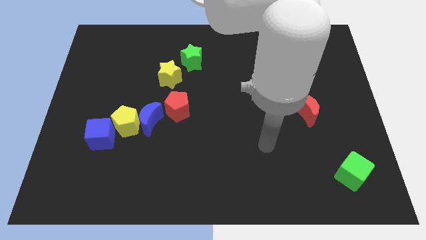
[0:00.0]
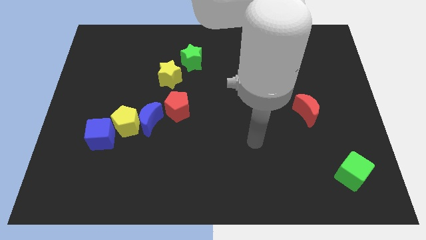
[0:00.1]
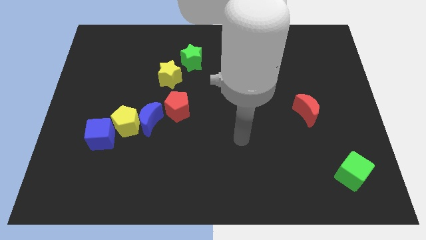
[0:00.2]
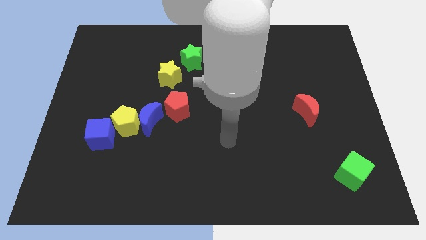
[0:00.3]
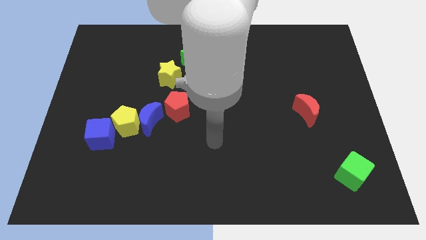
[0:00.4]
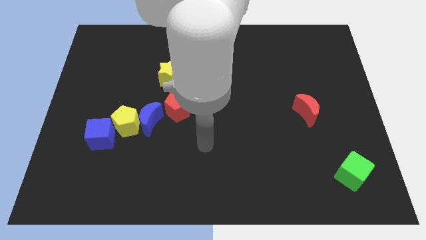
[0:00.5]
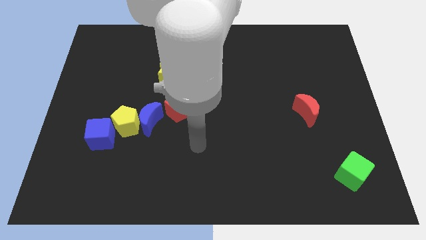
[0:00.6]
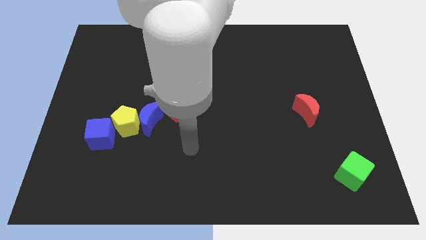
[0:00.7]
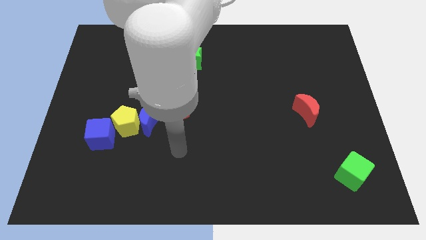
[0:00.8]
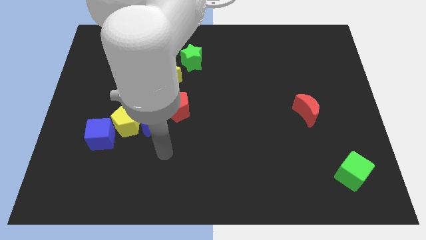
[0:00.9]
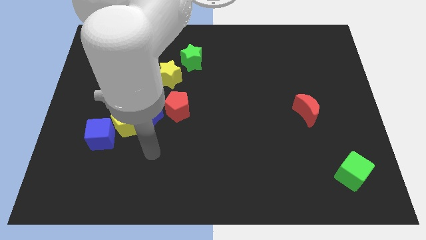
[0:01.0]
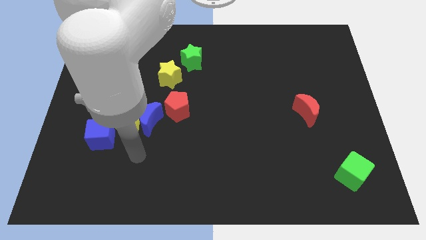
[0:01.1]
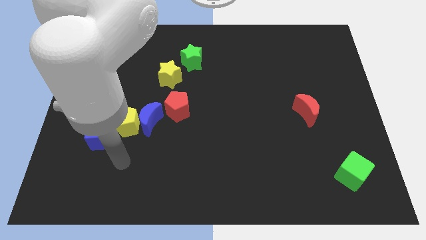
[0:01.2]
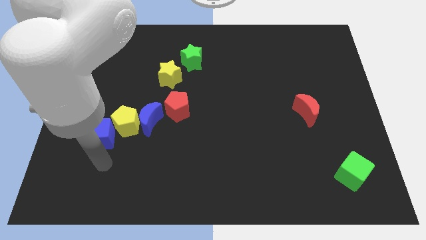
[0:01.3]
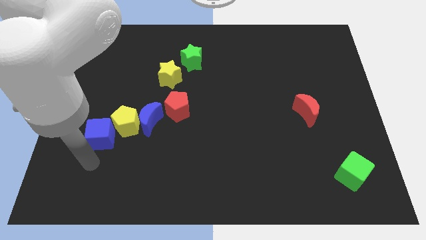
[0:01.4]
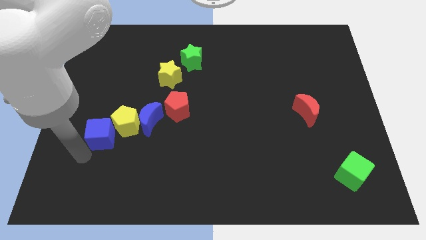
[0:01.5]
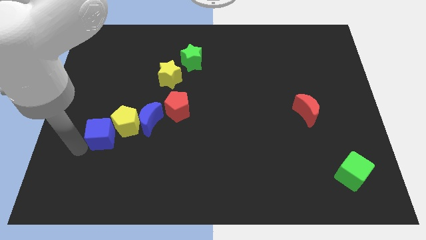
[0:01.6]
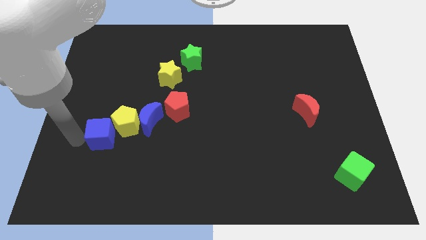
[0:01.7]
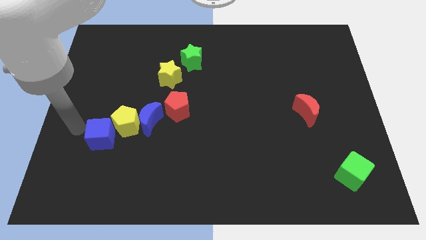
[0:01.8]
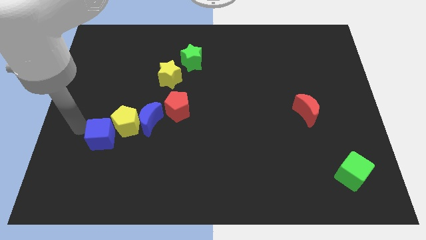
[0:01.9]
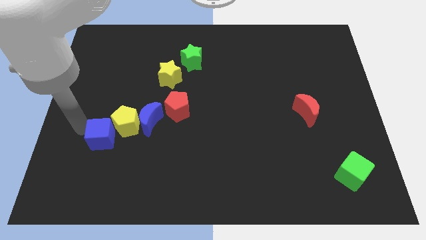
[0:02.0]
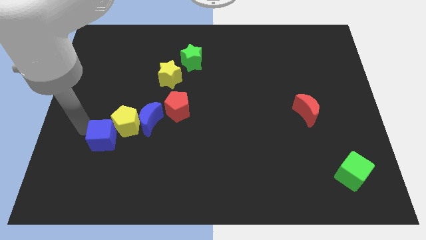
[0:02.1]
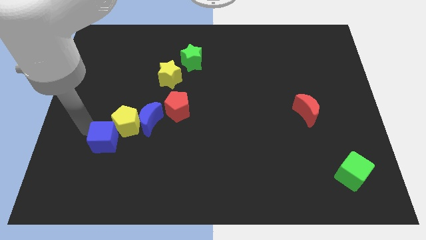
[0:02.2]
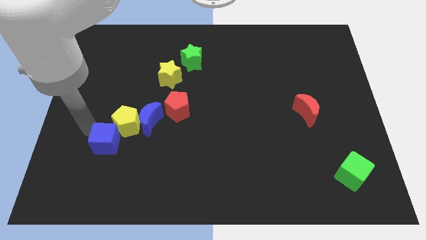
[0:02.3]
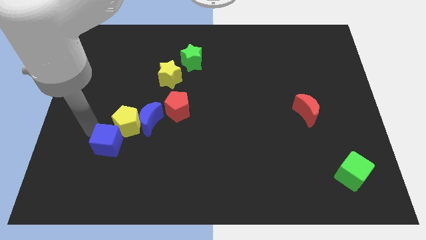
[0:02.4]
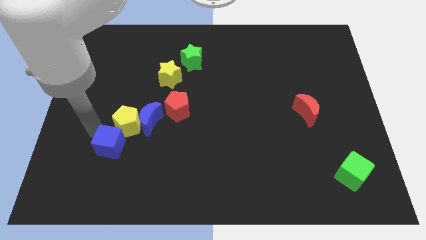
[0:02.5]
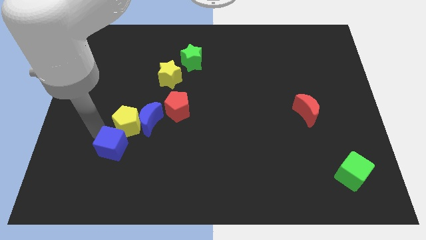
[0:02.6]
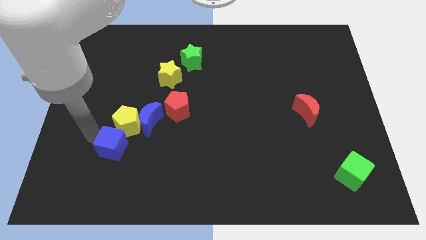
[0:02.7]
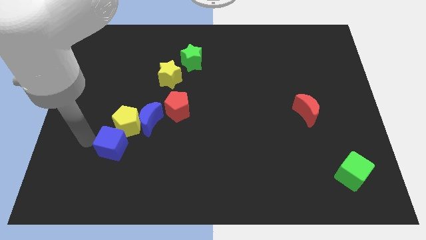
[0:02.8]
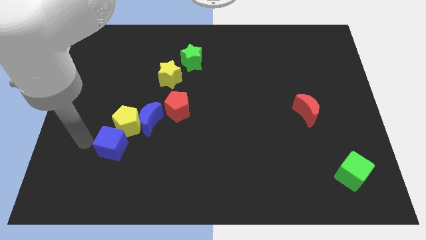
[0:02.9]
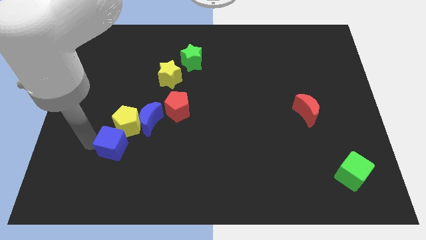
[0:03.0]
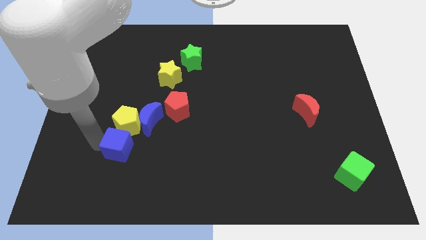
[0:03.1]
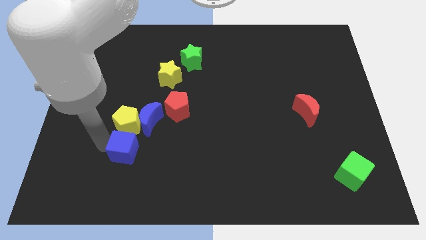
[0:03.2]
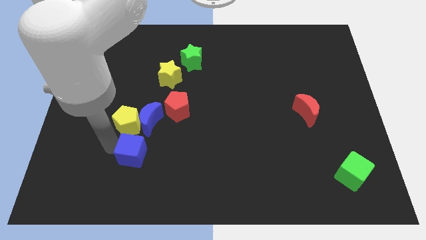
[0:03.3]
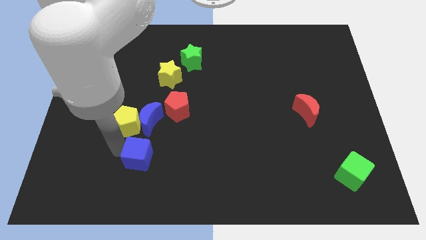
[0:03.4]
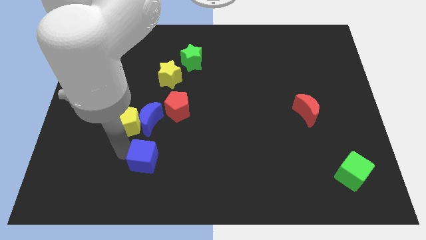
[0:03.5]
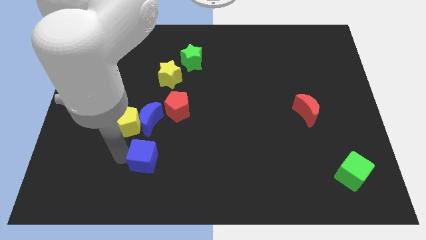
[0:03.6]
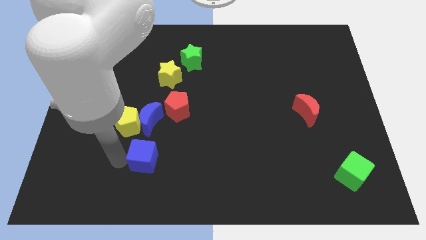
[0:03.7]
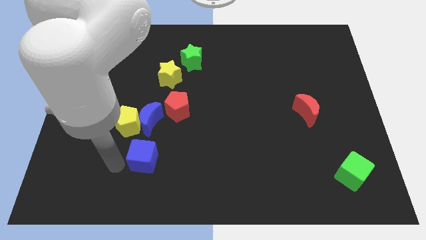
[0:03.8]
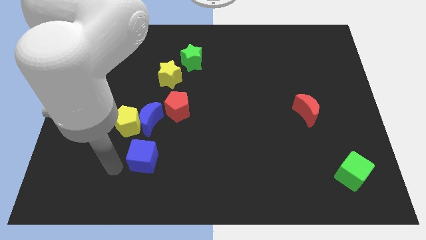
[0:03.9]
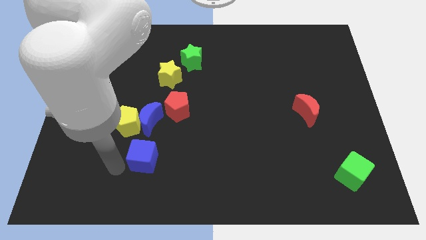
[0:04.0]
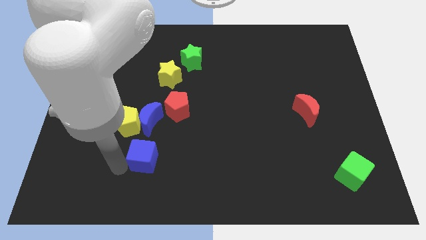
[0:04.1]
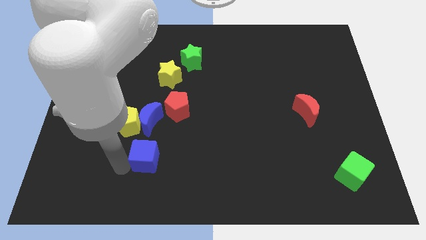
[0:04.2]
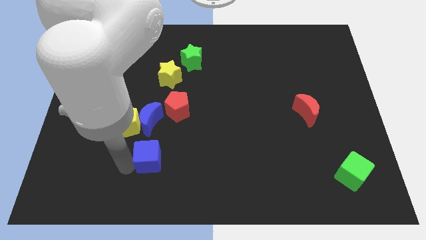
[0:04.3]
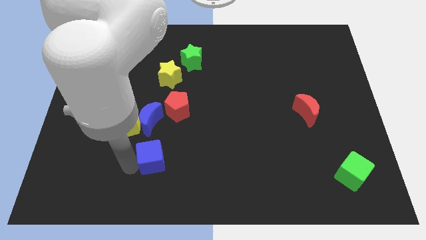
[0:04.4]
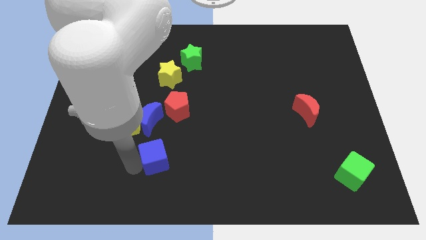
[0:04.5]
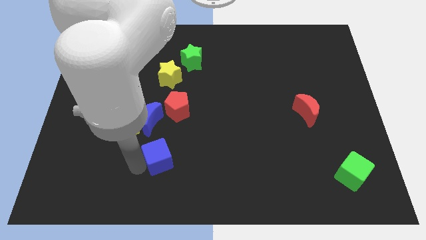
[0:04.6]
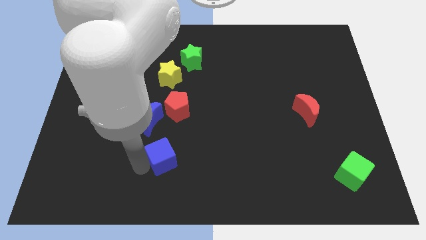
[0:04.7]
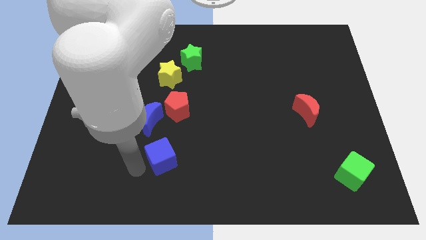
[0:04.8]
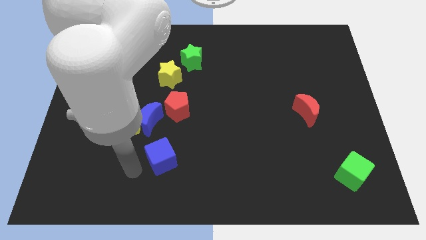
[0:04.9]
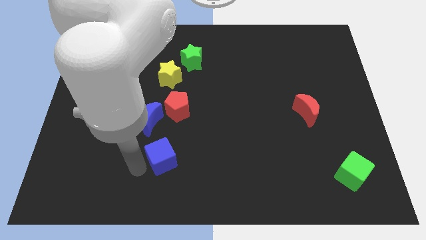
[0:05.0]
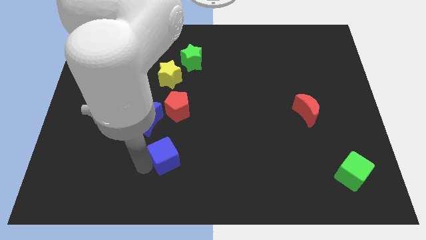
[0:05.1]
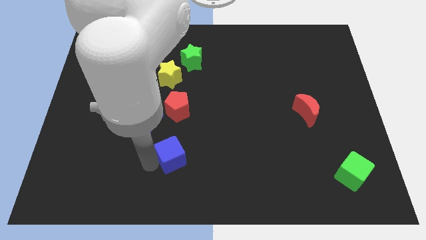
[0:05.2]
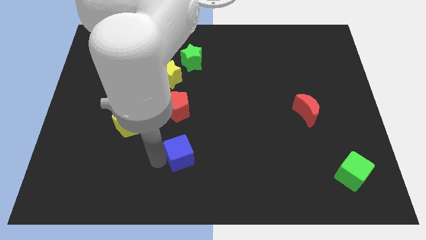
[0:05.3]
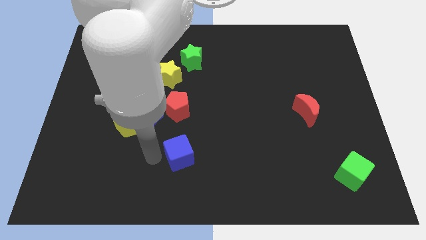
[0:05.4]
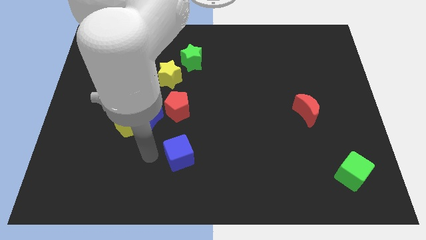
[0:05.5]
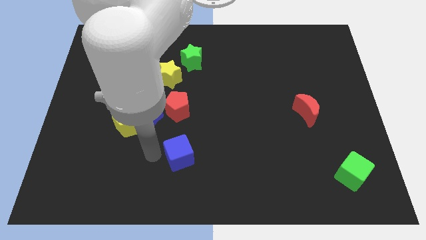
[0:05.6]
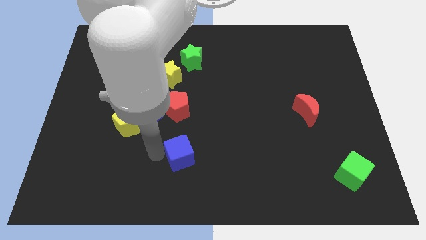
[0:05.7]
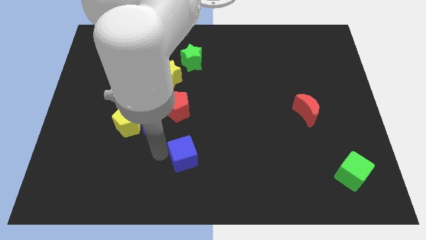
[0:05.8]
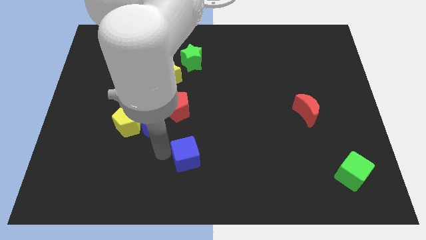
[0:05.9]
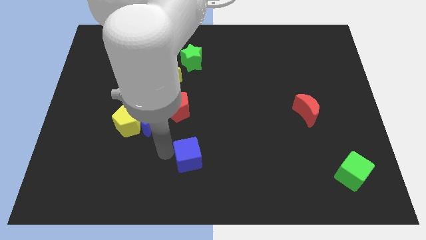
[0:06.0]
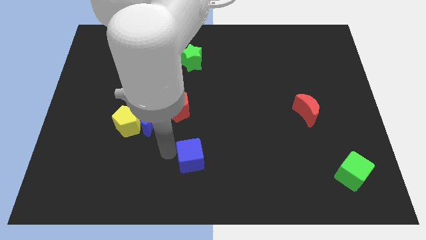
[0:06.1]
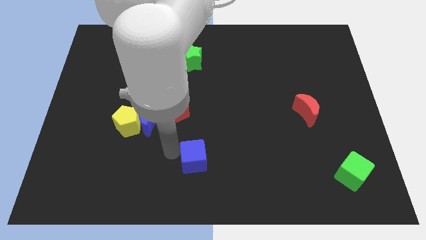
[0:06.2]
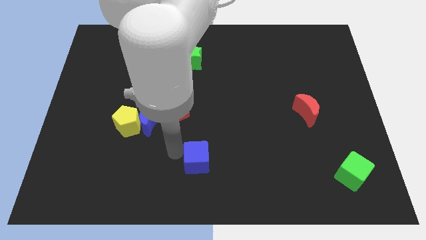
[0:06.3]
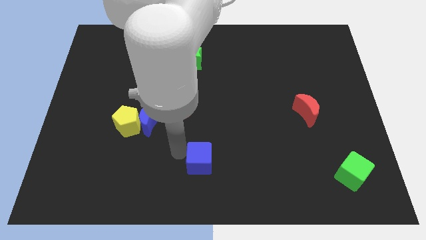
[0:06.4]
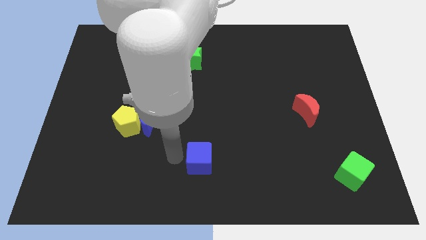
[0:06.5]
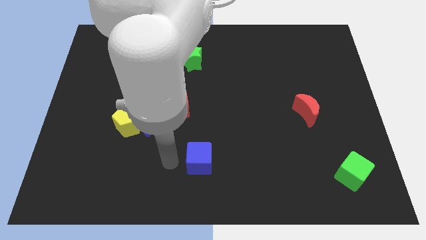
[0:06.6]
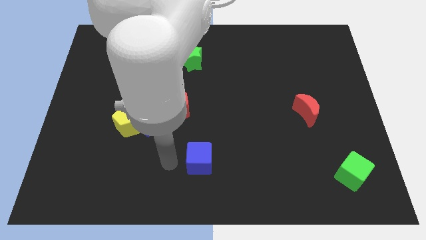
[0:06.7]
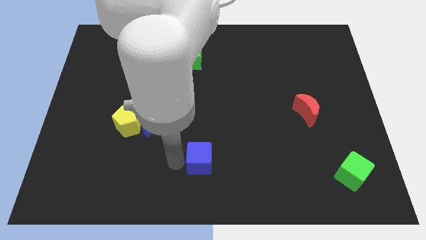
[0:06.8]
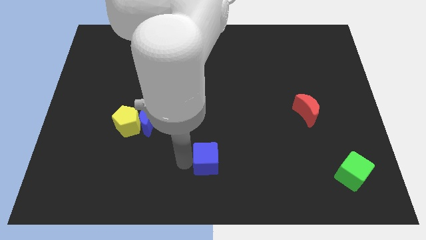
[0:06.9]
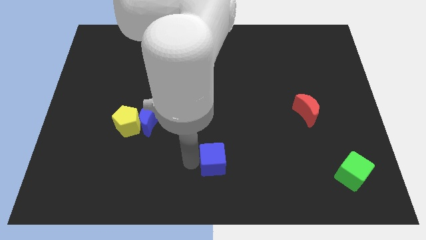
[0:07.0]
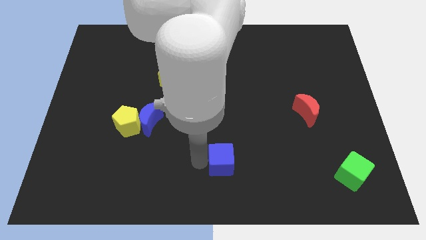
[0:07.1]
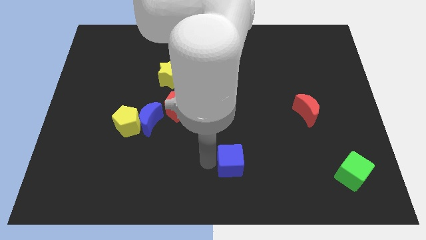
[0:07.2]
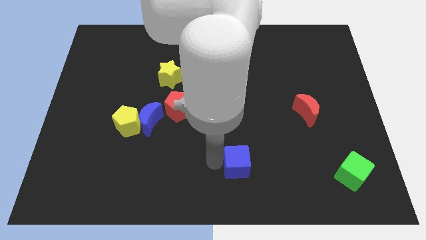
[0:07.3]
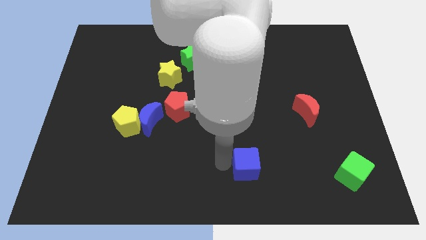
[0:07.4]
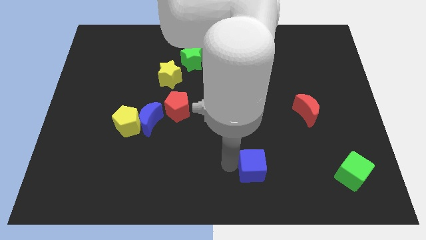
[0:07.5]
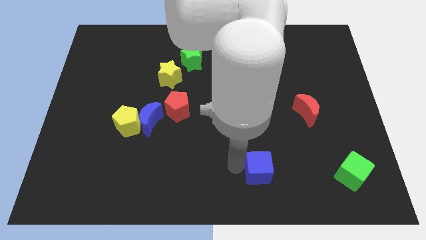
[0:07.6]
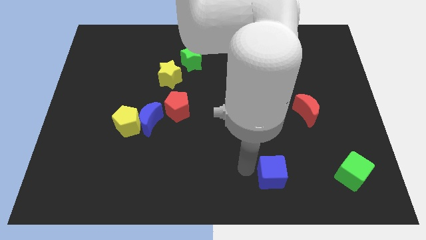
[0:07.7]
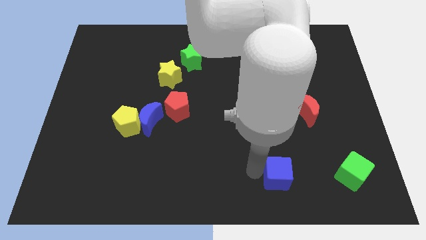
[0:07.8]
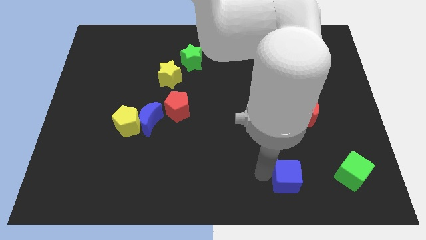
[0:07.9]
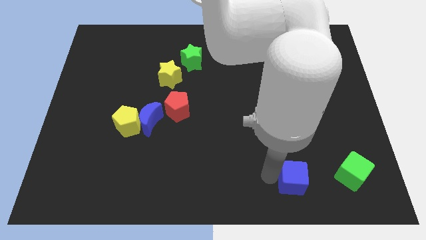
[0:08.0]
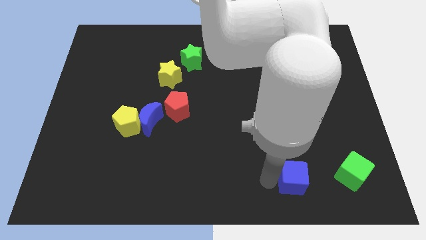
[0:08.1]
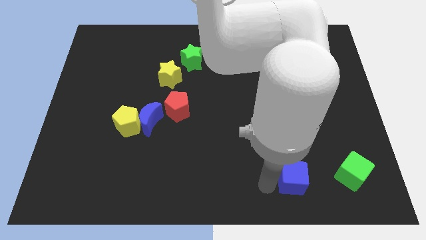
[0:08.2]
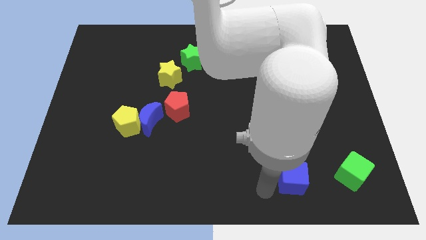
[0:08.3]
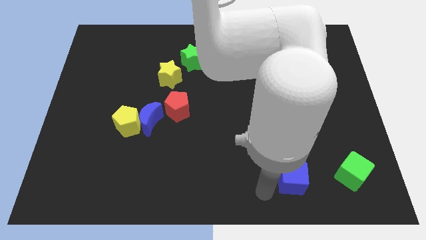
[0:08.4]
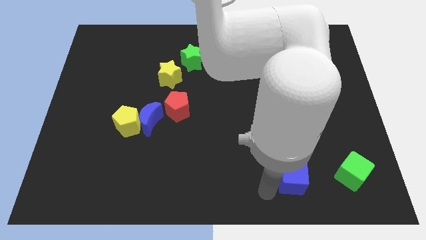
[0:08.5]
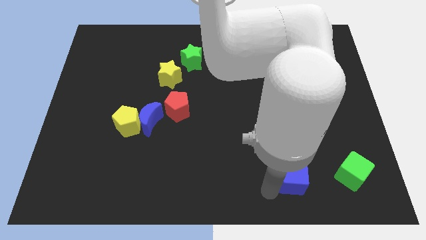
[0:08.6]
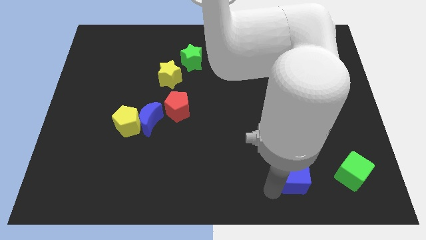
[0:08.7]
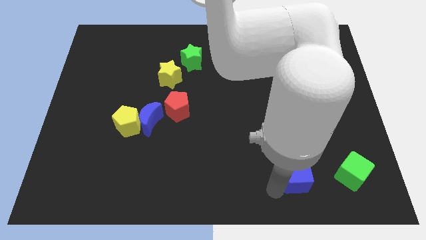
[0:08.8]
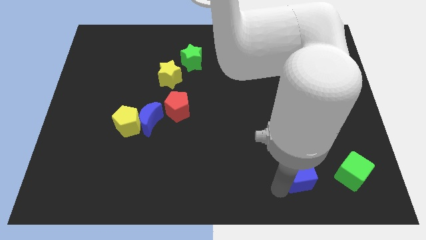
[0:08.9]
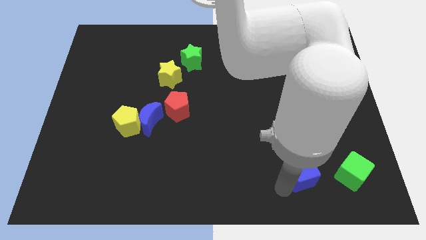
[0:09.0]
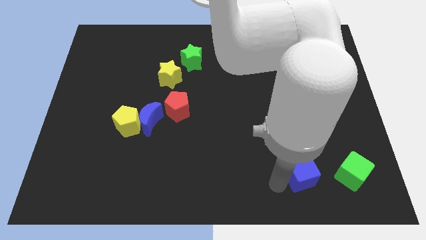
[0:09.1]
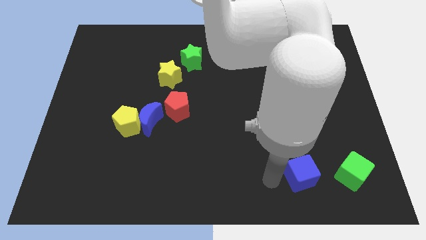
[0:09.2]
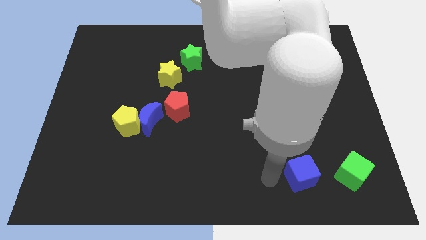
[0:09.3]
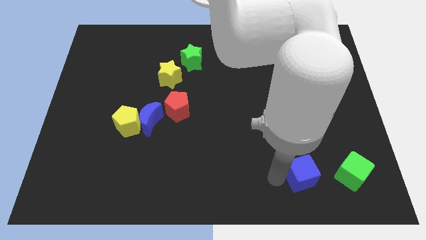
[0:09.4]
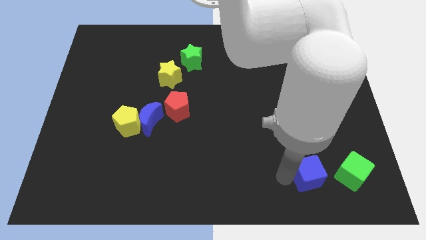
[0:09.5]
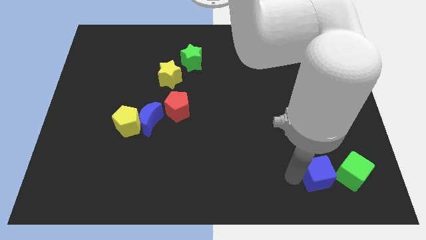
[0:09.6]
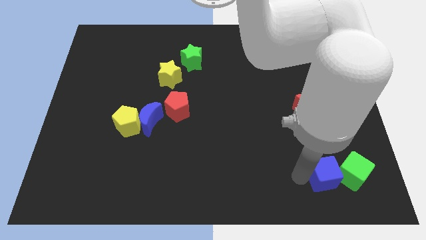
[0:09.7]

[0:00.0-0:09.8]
slide the blue cube next to the green cube
